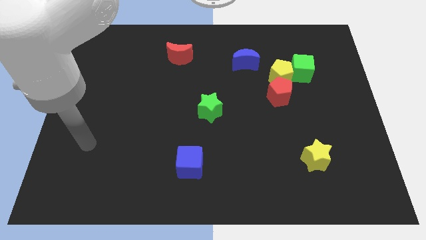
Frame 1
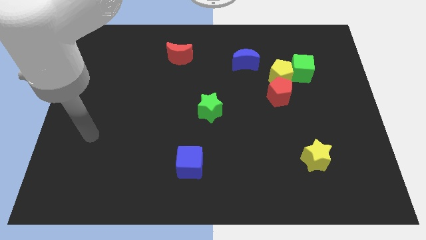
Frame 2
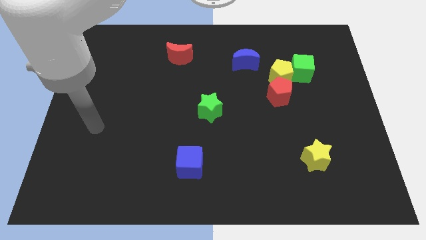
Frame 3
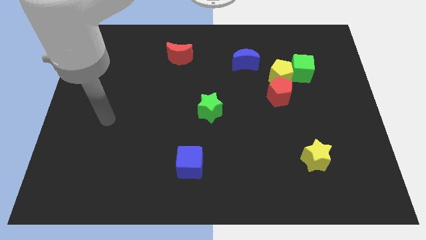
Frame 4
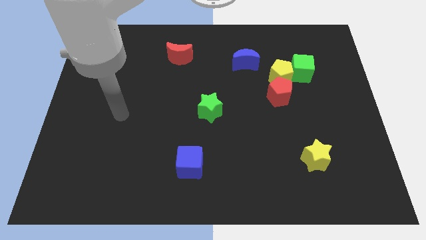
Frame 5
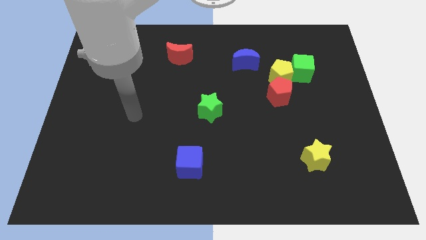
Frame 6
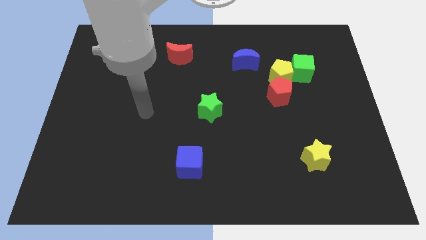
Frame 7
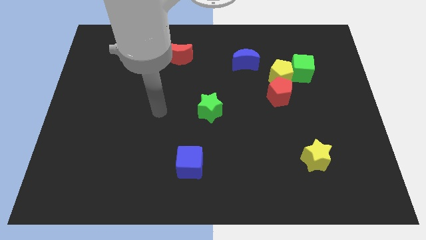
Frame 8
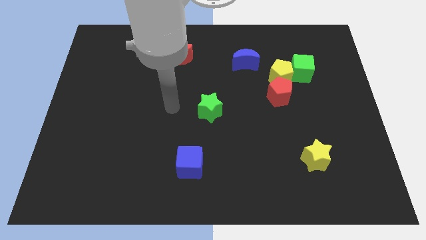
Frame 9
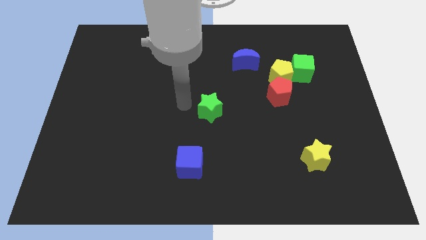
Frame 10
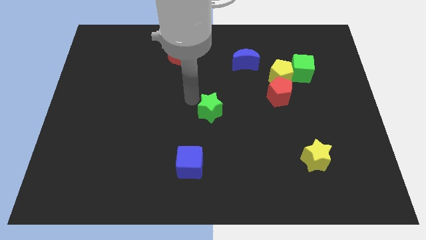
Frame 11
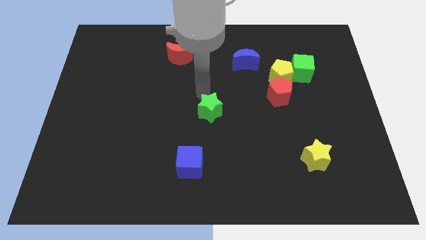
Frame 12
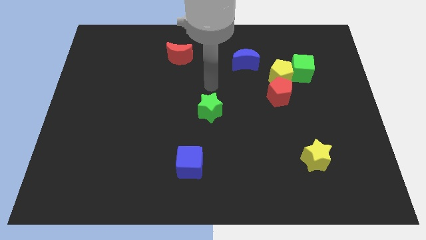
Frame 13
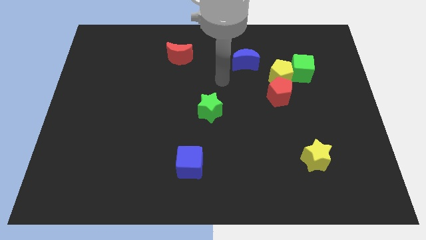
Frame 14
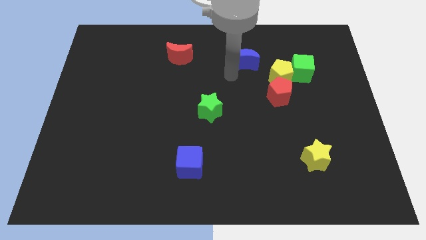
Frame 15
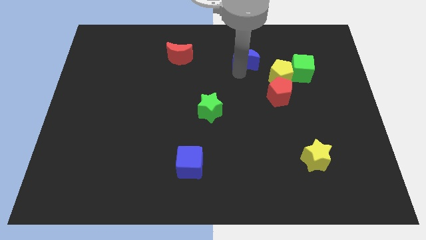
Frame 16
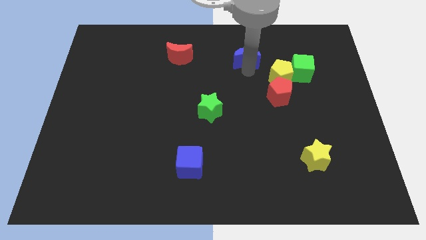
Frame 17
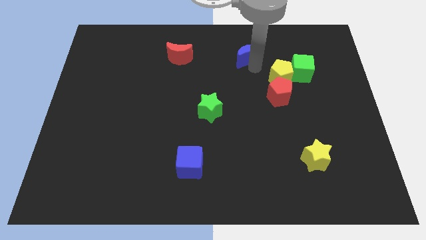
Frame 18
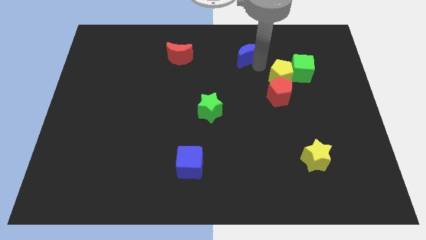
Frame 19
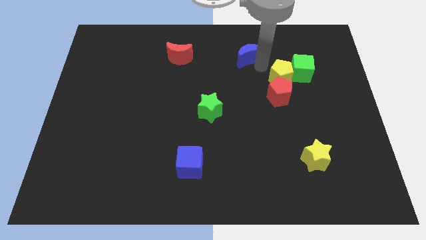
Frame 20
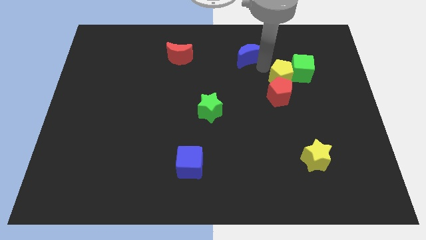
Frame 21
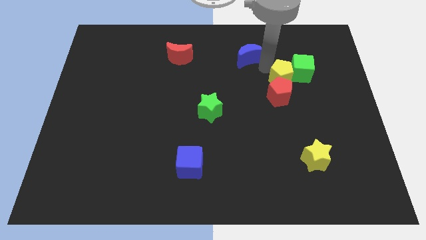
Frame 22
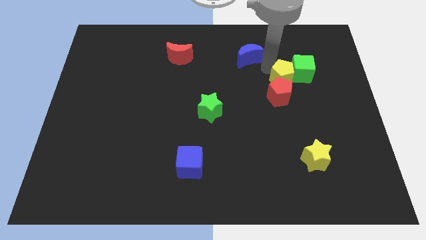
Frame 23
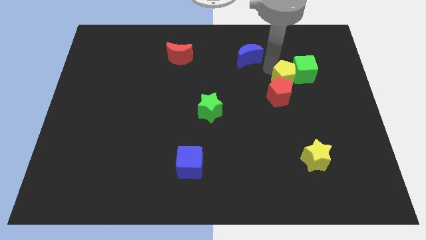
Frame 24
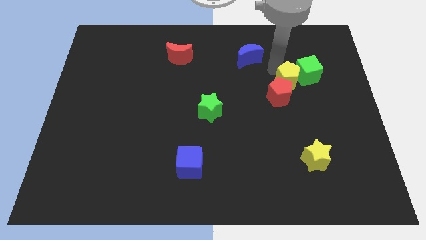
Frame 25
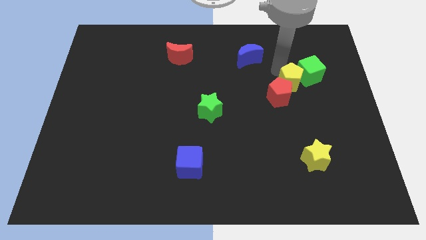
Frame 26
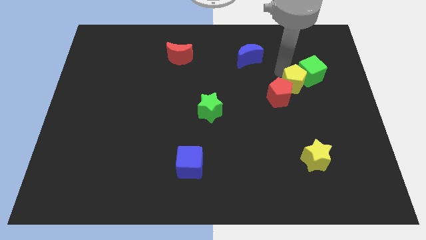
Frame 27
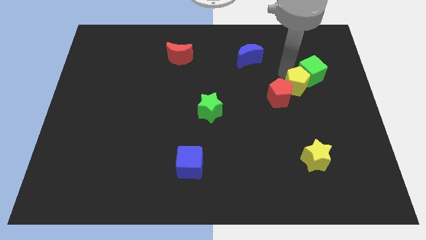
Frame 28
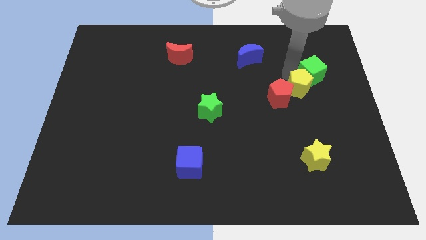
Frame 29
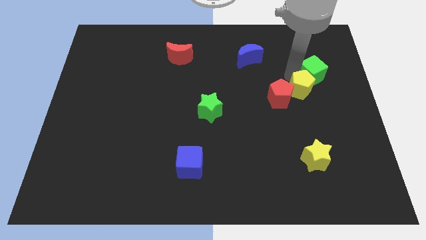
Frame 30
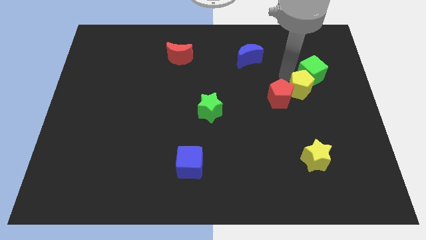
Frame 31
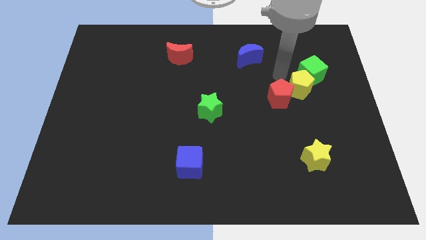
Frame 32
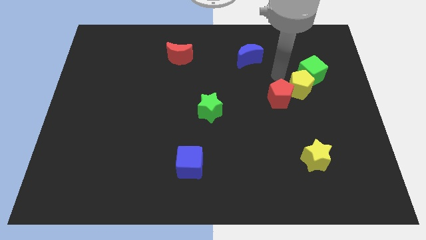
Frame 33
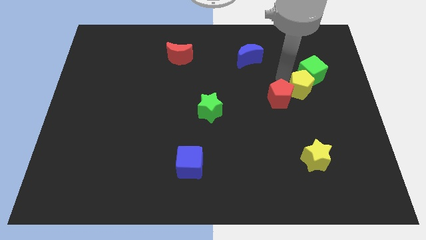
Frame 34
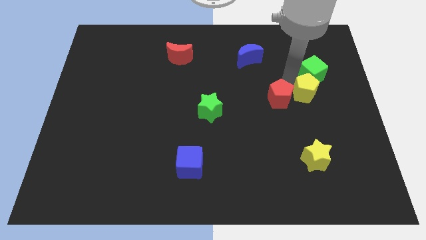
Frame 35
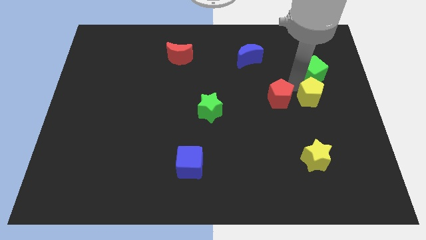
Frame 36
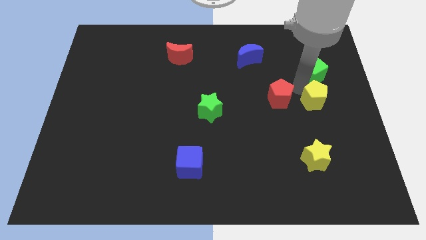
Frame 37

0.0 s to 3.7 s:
move the yellow pentagon away from the group of blocks

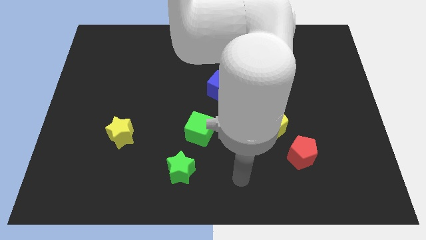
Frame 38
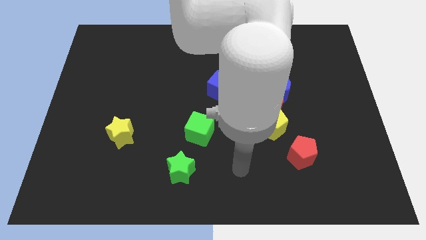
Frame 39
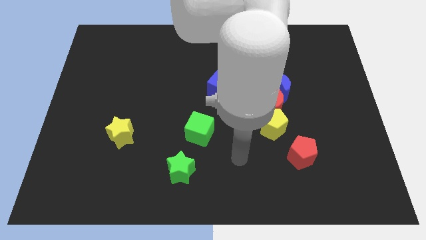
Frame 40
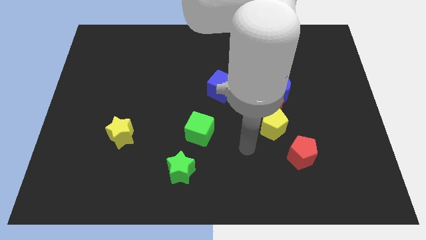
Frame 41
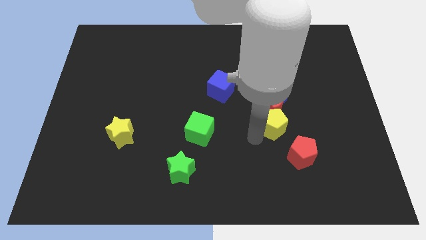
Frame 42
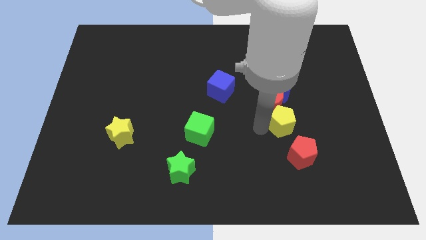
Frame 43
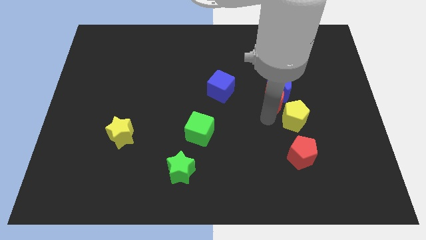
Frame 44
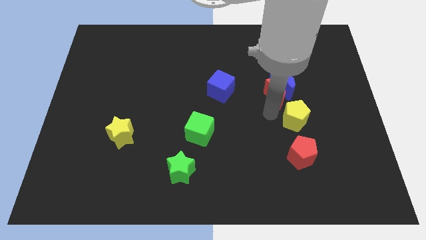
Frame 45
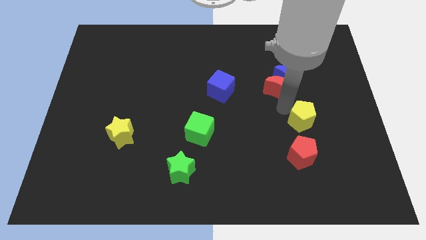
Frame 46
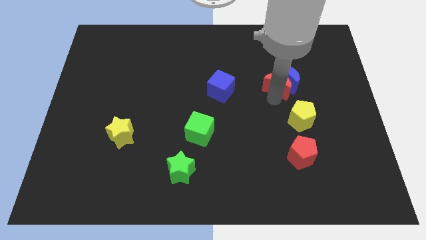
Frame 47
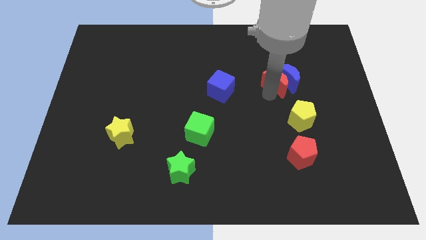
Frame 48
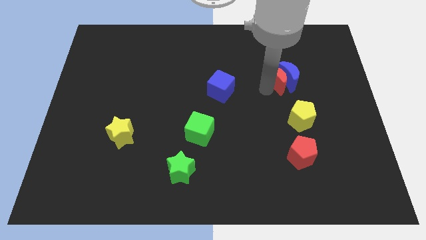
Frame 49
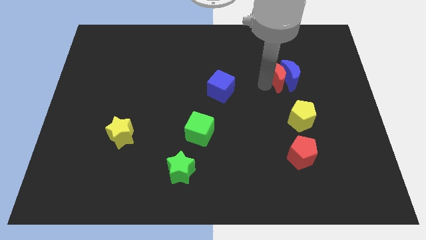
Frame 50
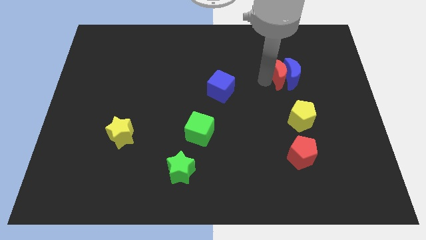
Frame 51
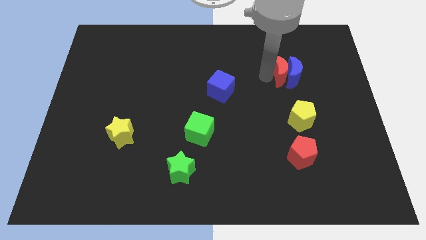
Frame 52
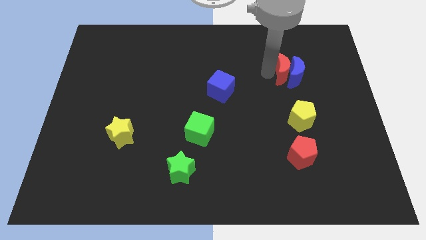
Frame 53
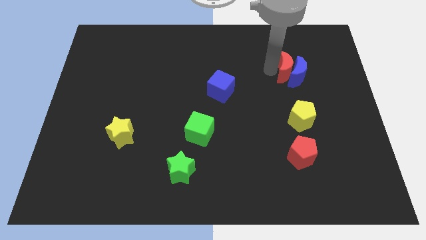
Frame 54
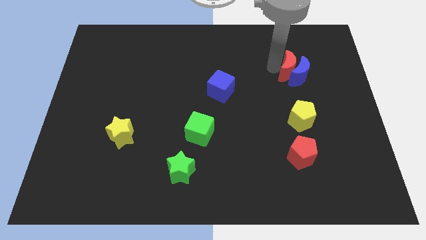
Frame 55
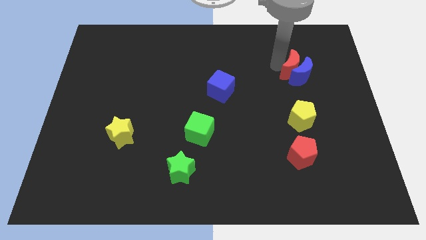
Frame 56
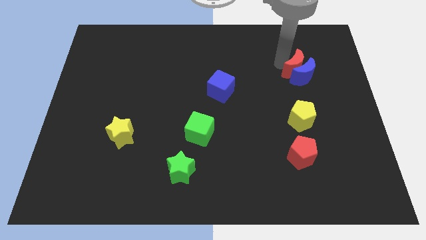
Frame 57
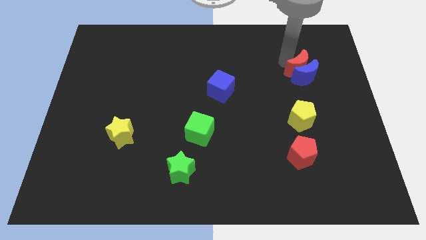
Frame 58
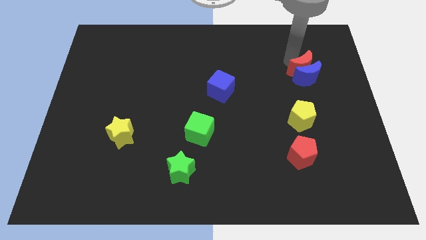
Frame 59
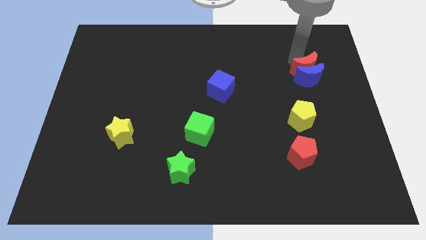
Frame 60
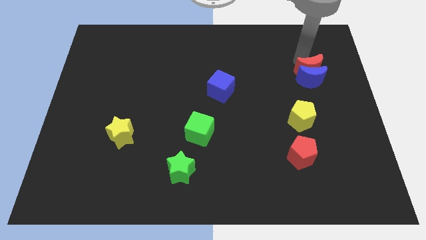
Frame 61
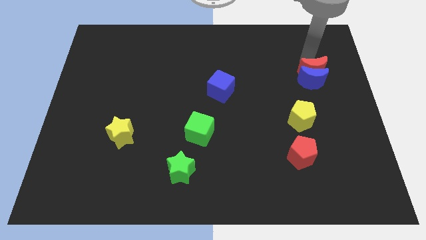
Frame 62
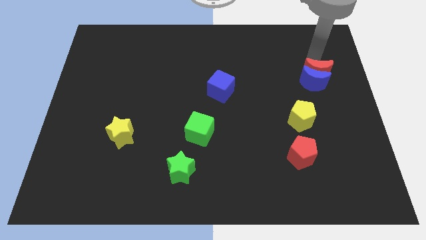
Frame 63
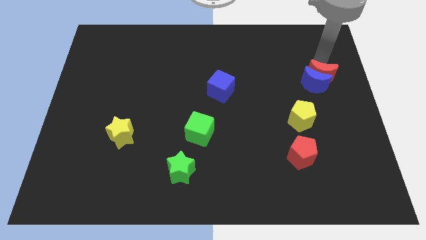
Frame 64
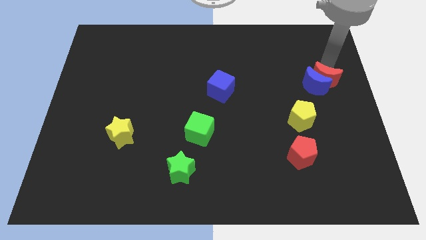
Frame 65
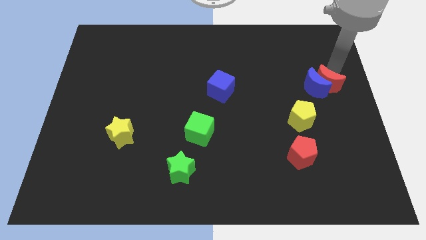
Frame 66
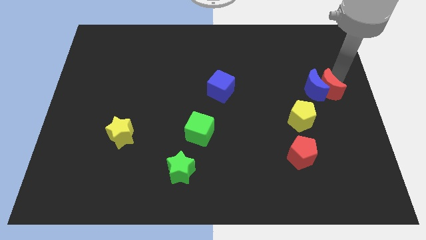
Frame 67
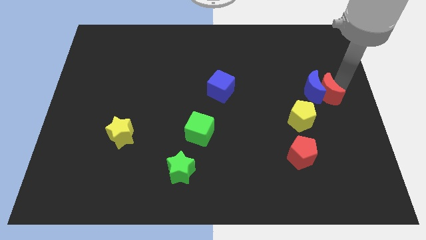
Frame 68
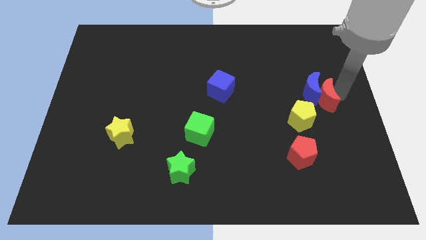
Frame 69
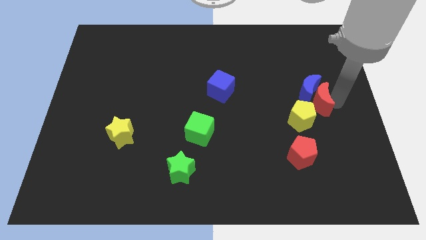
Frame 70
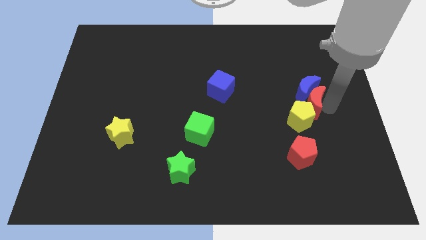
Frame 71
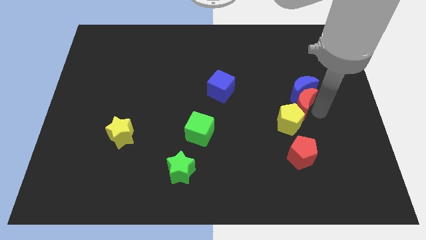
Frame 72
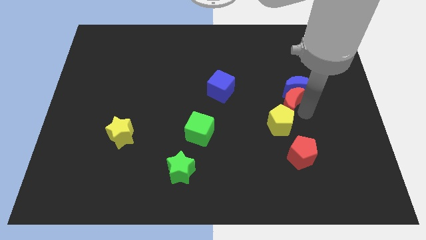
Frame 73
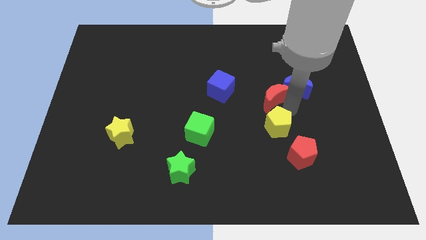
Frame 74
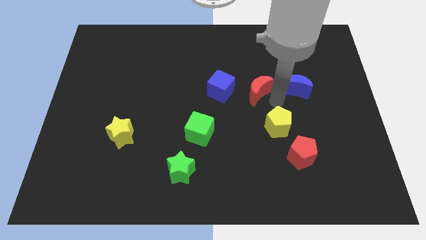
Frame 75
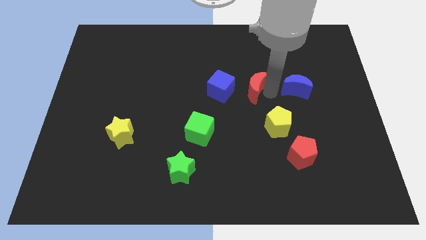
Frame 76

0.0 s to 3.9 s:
separate the blue moon from the red moon

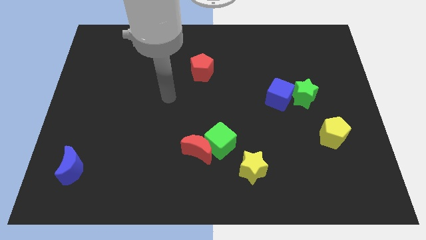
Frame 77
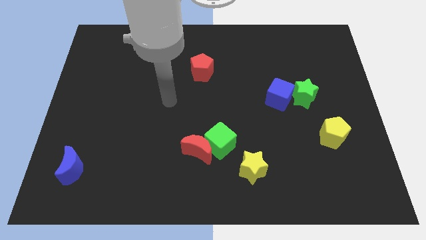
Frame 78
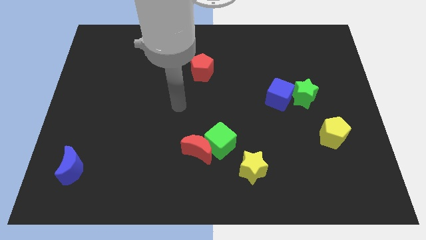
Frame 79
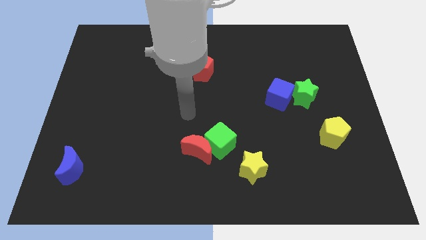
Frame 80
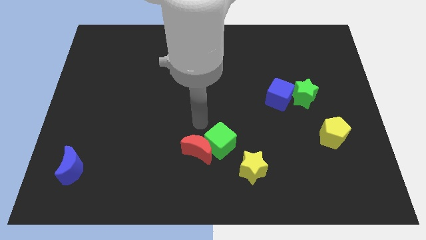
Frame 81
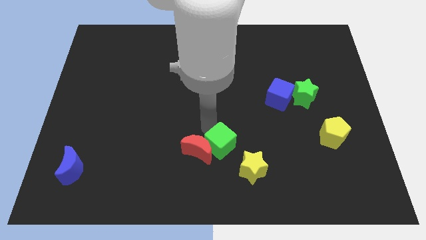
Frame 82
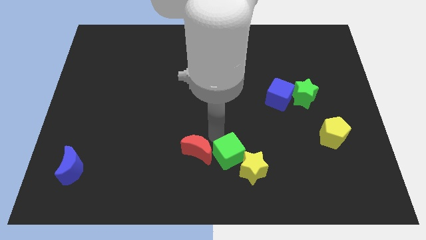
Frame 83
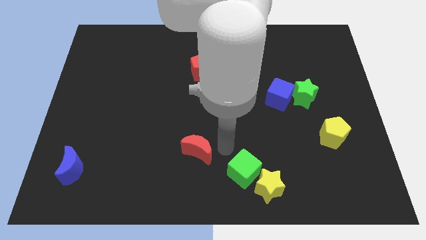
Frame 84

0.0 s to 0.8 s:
separate the red moon from the green cube

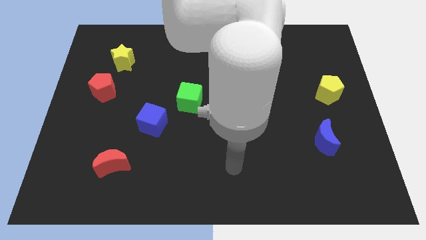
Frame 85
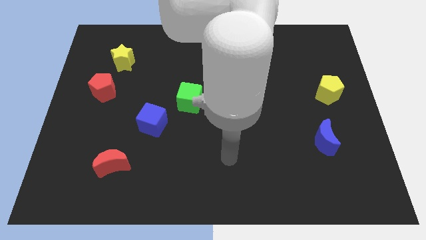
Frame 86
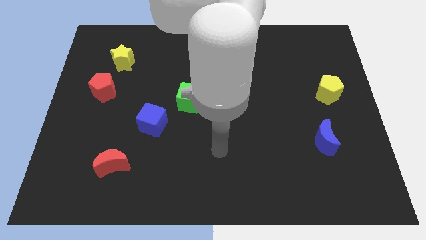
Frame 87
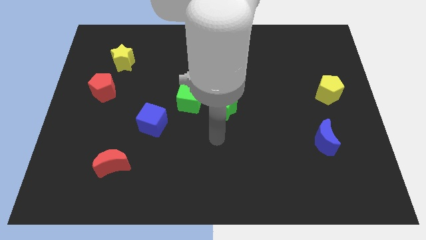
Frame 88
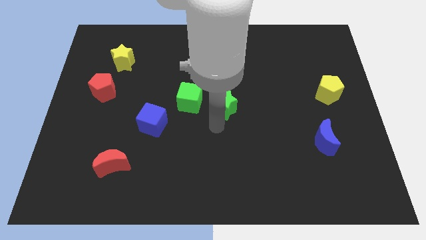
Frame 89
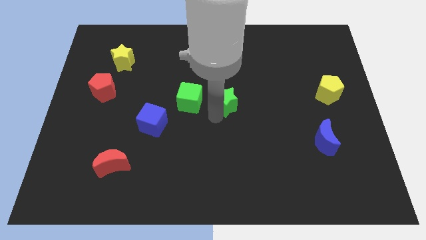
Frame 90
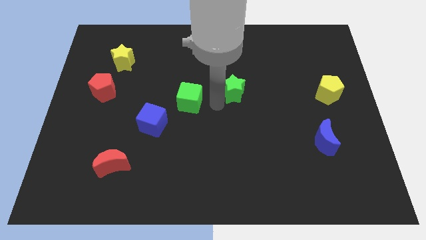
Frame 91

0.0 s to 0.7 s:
move the green cube away from the green star

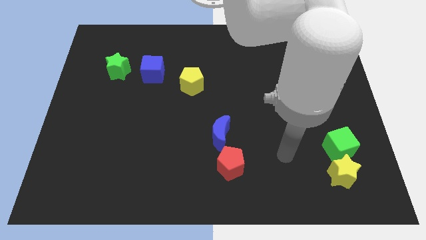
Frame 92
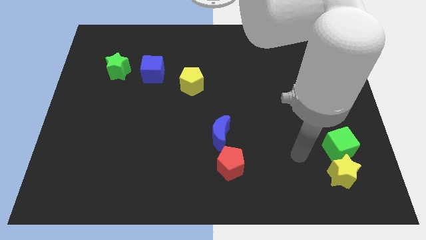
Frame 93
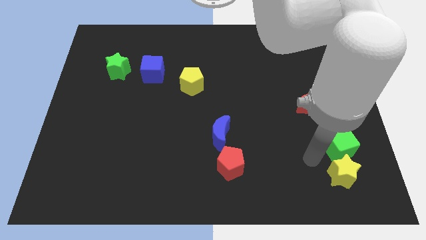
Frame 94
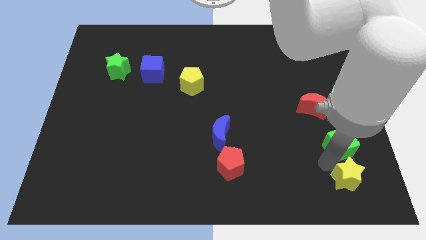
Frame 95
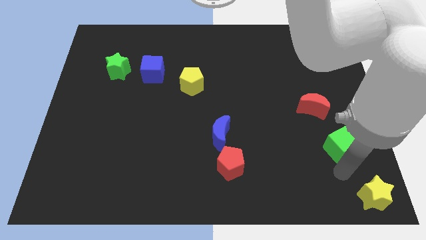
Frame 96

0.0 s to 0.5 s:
pull the green cube apart from the yellow star
